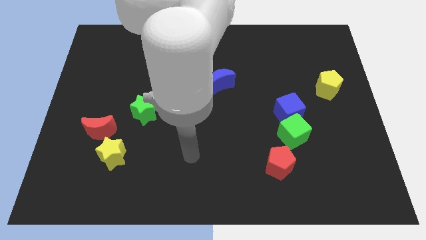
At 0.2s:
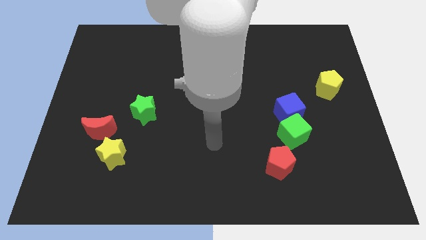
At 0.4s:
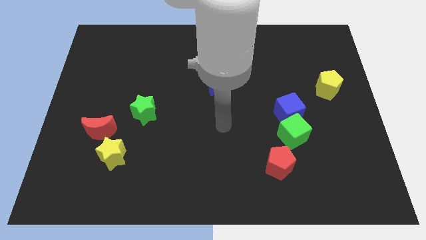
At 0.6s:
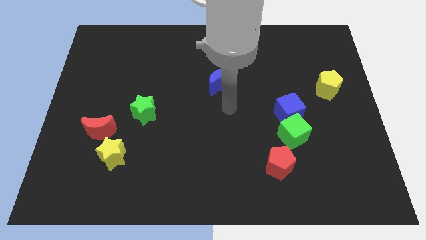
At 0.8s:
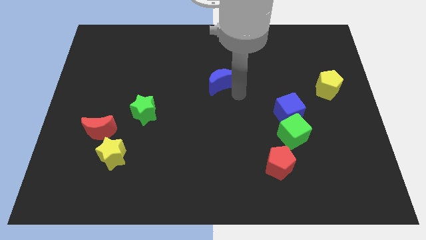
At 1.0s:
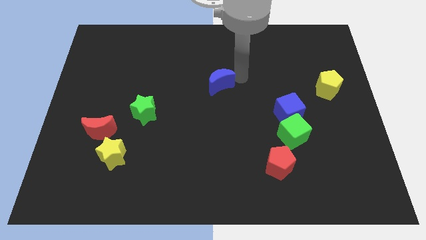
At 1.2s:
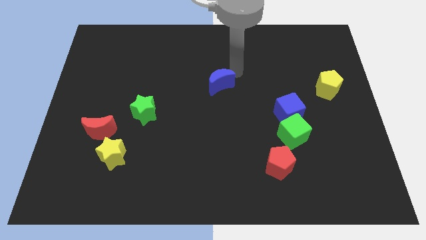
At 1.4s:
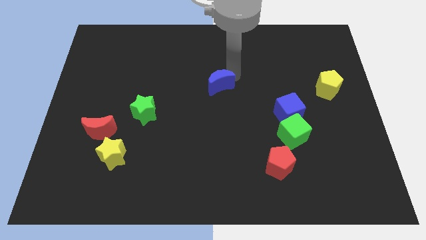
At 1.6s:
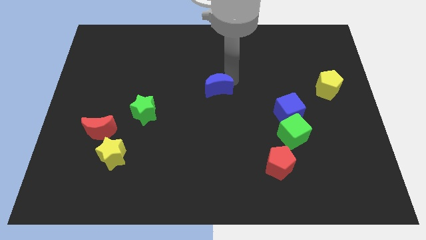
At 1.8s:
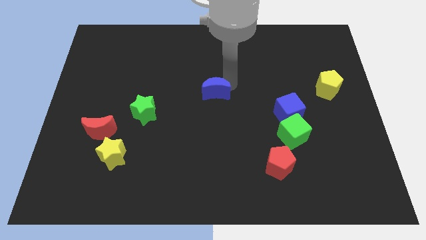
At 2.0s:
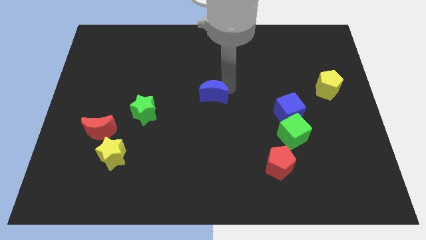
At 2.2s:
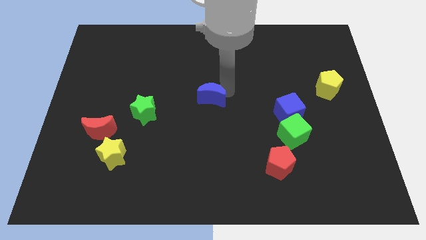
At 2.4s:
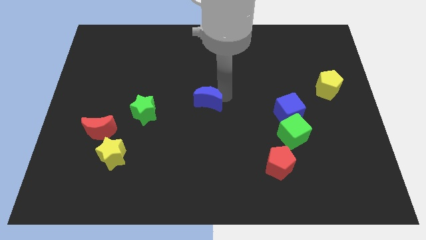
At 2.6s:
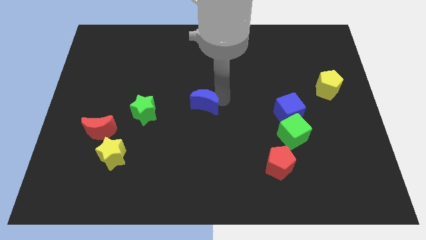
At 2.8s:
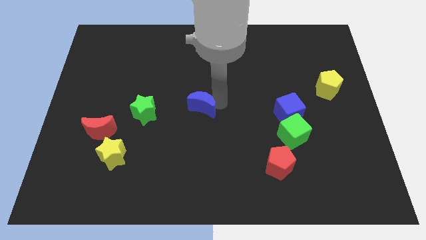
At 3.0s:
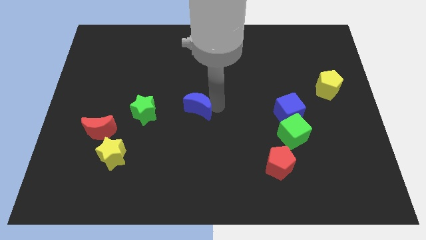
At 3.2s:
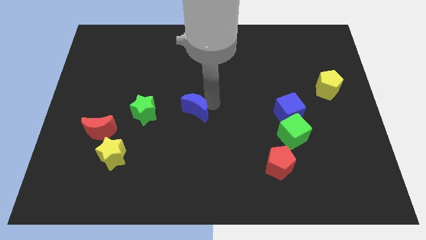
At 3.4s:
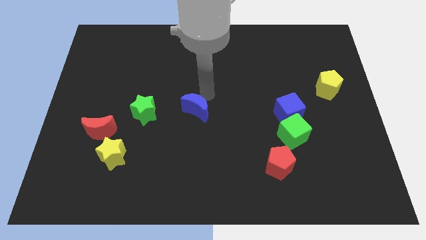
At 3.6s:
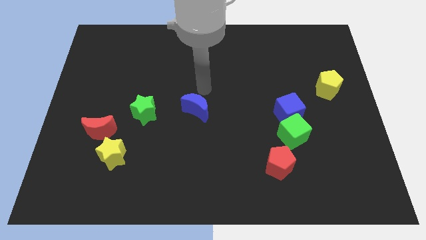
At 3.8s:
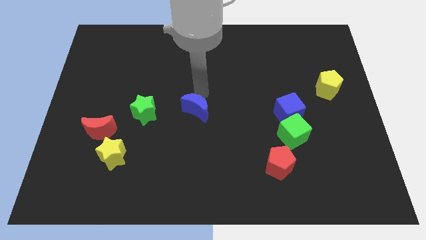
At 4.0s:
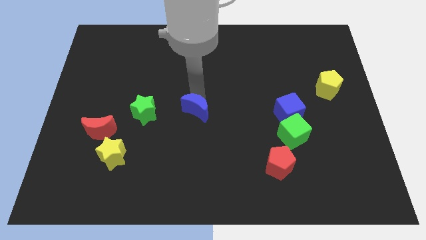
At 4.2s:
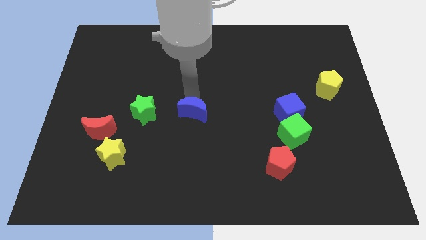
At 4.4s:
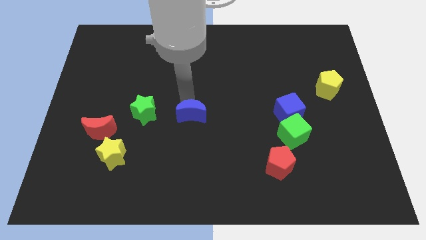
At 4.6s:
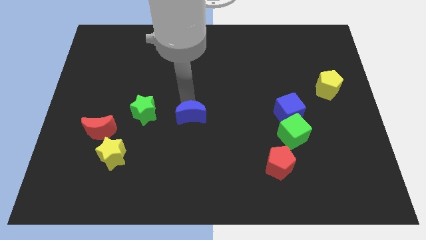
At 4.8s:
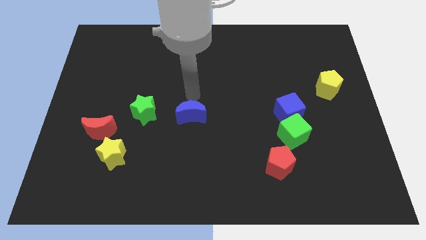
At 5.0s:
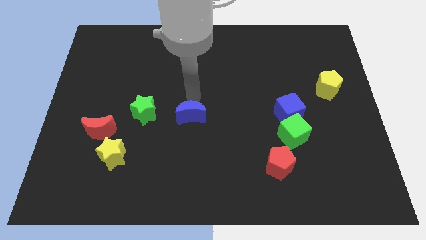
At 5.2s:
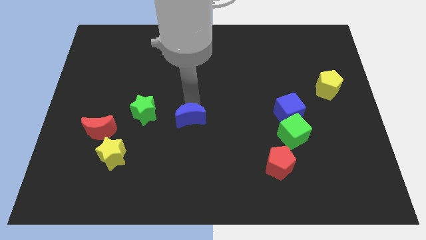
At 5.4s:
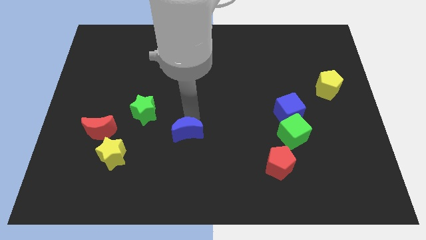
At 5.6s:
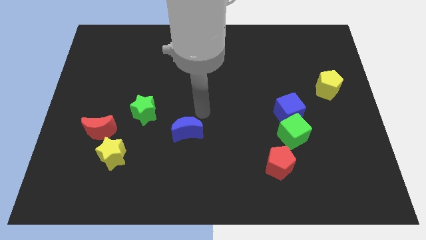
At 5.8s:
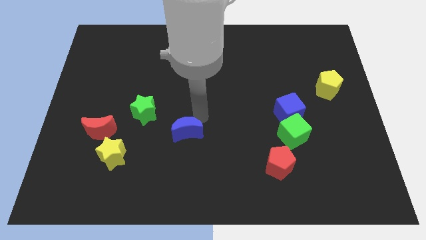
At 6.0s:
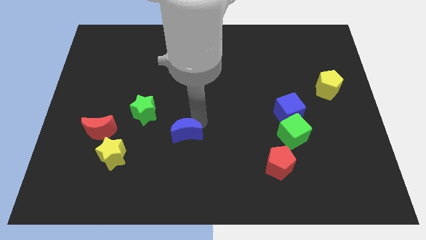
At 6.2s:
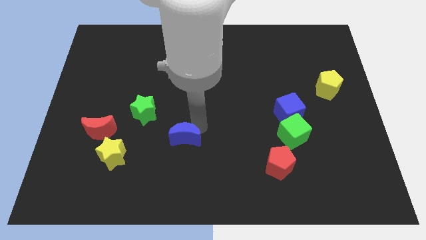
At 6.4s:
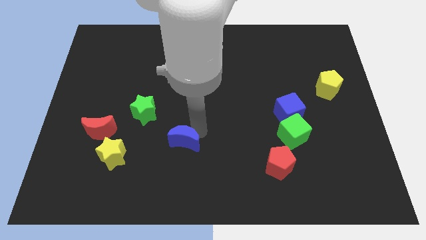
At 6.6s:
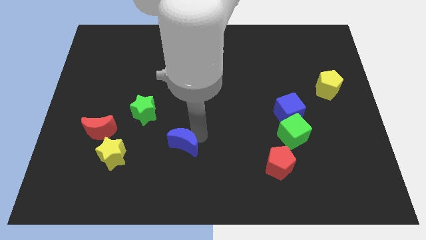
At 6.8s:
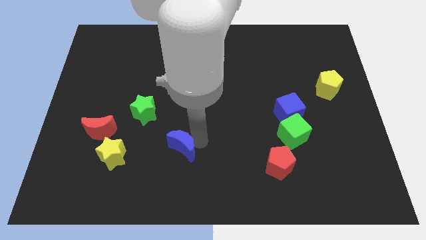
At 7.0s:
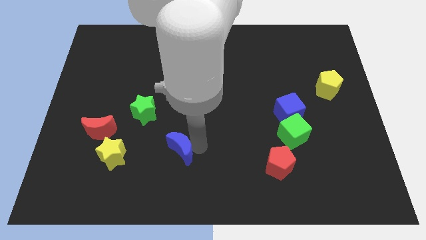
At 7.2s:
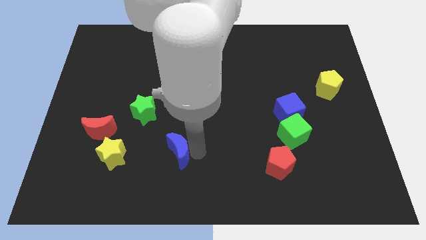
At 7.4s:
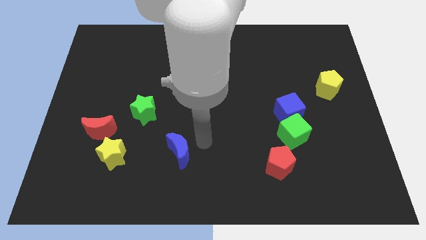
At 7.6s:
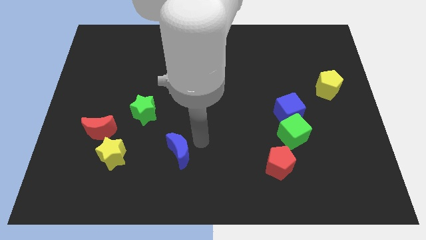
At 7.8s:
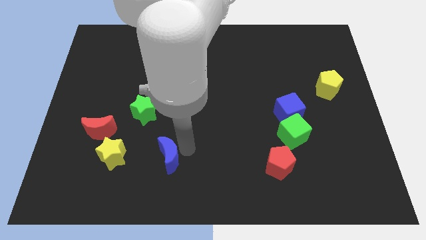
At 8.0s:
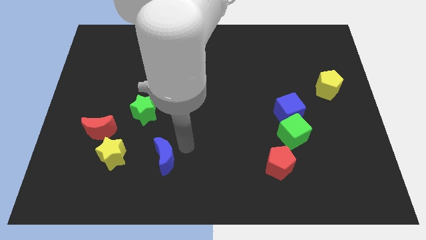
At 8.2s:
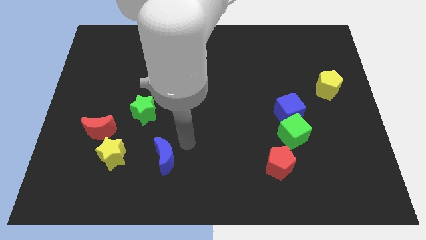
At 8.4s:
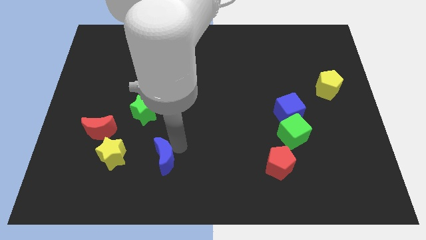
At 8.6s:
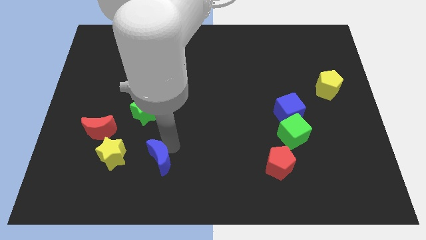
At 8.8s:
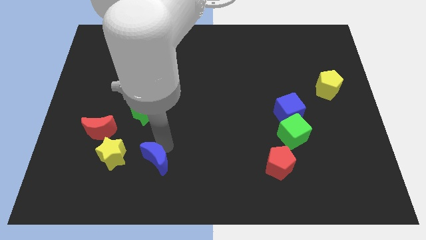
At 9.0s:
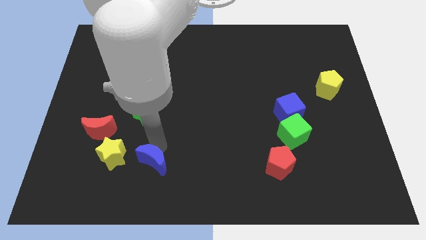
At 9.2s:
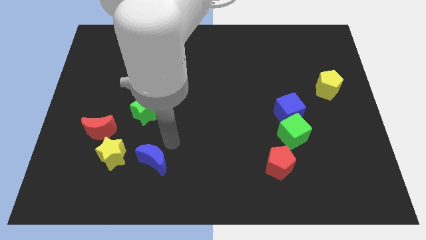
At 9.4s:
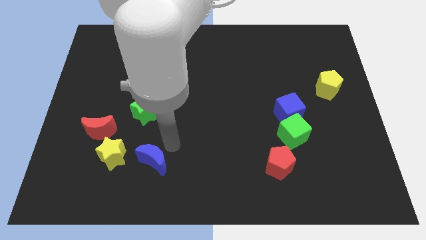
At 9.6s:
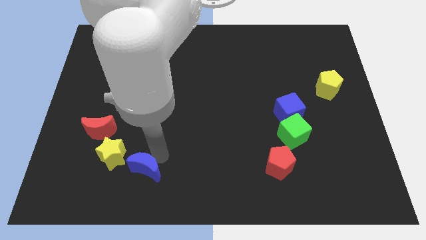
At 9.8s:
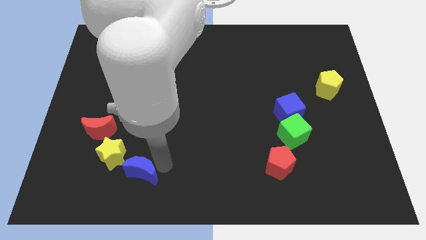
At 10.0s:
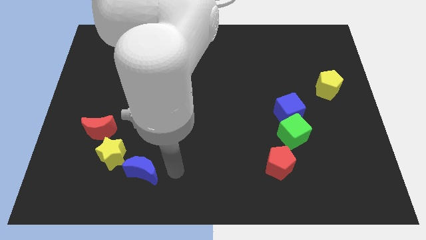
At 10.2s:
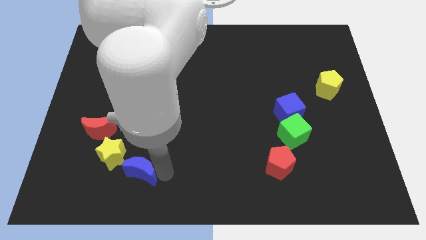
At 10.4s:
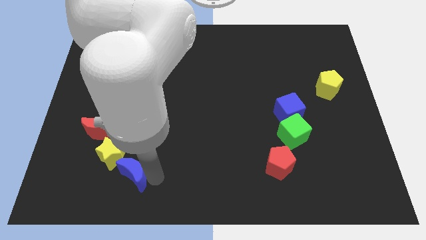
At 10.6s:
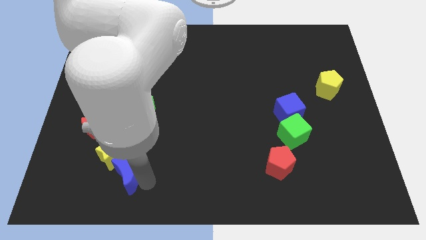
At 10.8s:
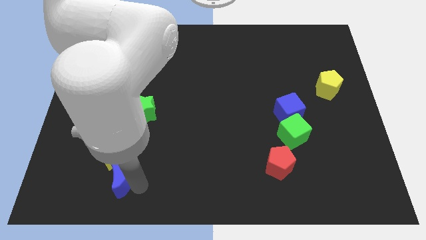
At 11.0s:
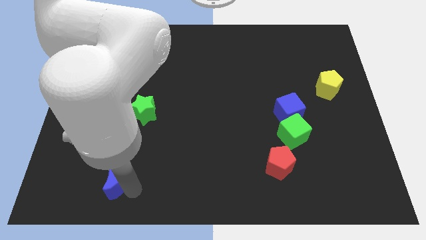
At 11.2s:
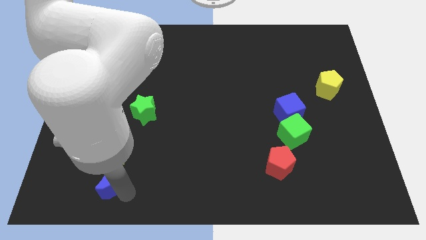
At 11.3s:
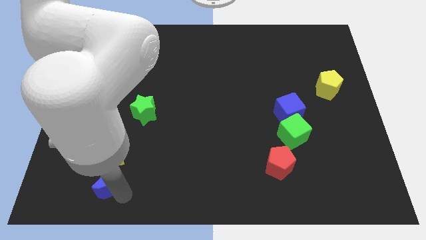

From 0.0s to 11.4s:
slide the blue moon to the bottom of the red moon

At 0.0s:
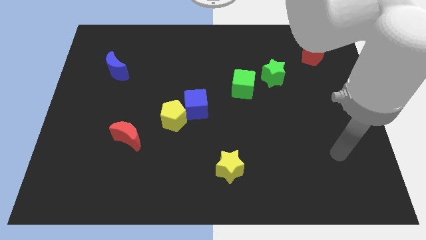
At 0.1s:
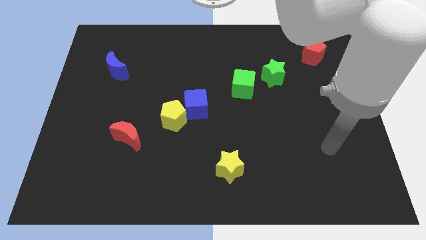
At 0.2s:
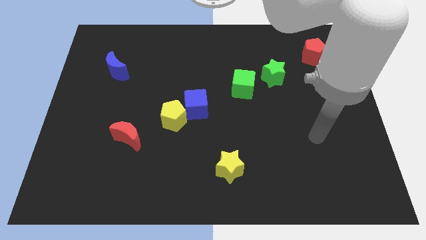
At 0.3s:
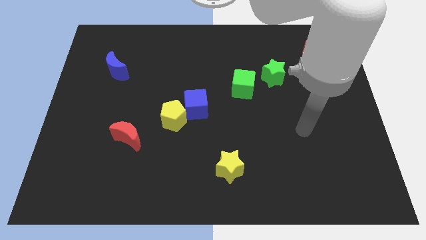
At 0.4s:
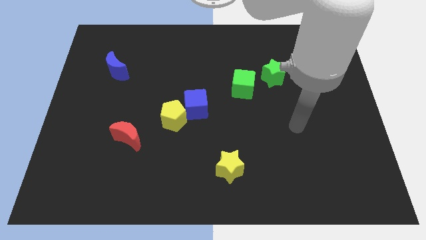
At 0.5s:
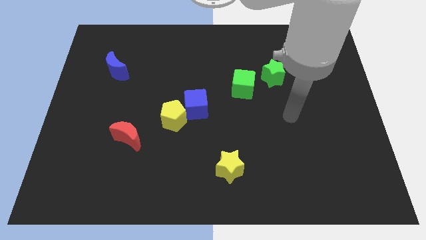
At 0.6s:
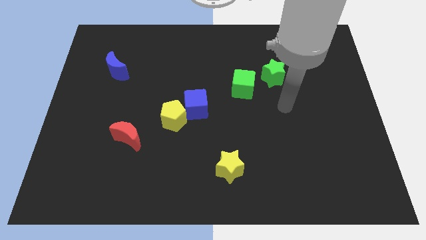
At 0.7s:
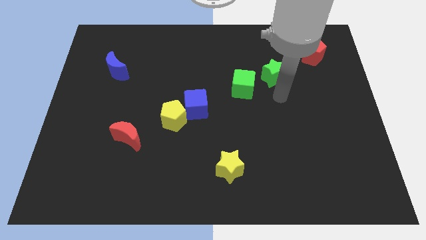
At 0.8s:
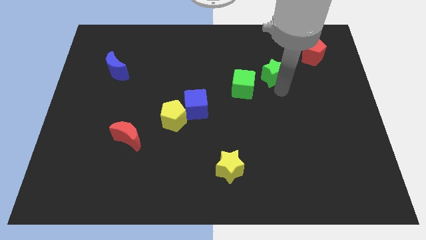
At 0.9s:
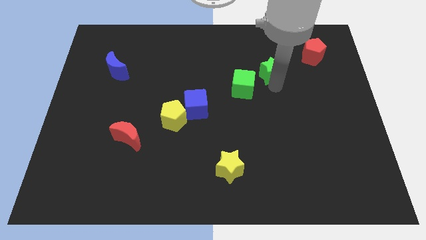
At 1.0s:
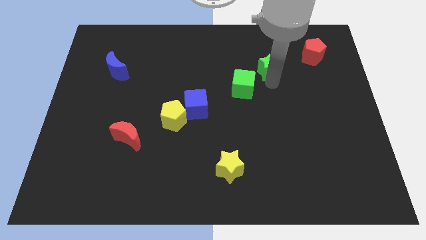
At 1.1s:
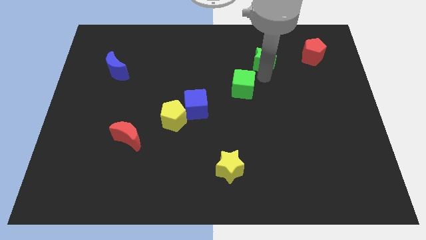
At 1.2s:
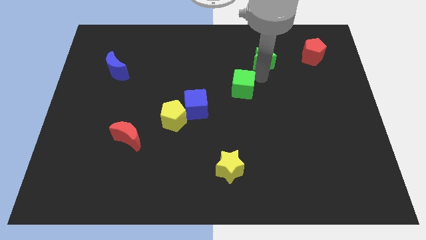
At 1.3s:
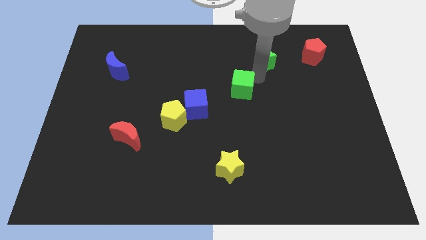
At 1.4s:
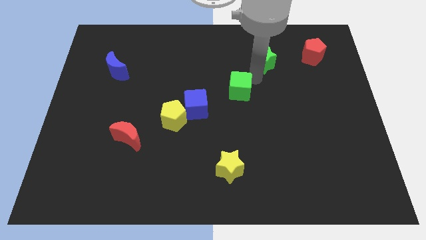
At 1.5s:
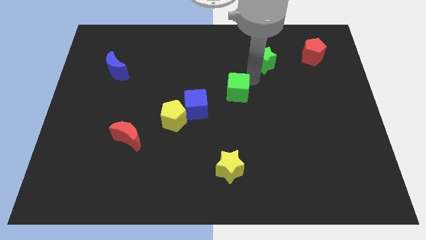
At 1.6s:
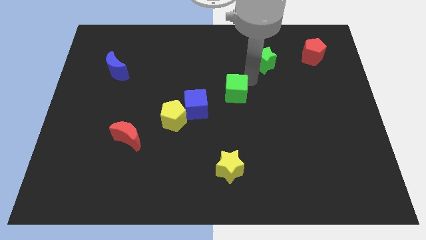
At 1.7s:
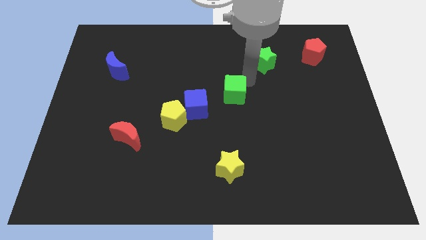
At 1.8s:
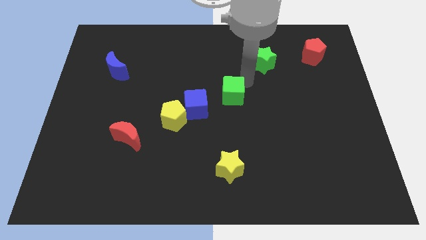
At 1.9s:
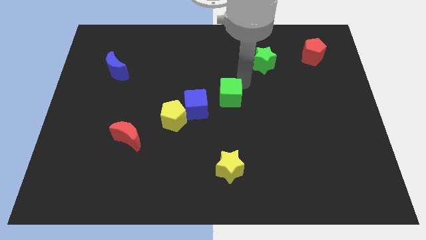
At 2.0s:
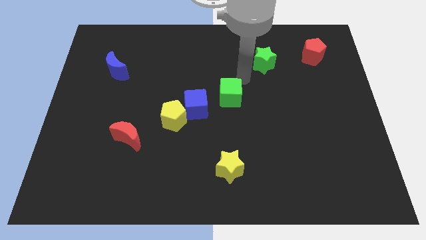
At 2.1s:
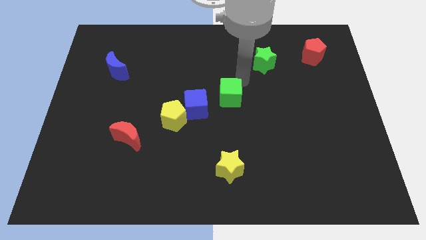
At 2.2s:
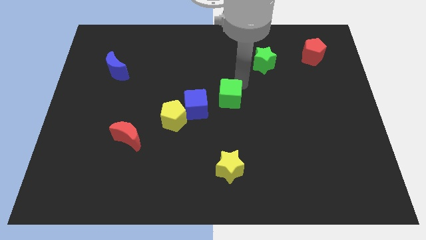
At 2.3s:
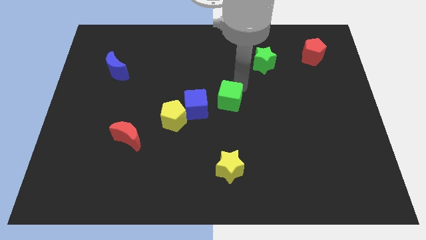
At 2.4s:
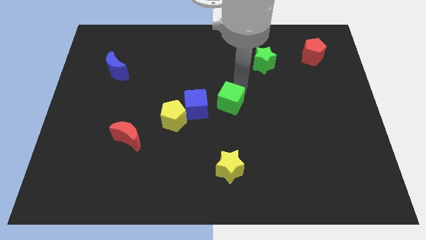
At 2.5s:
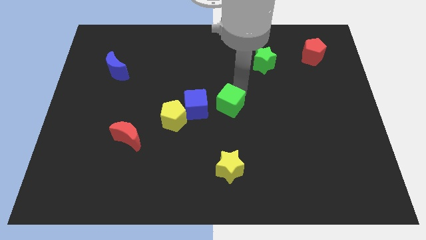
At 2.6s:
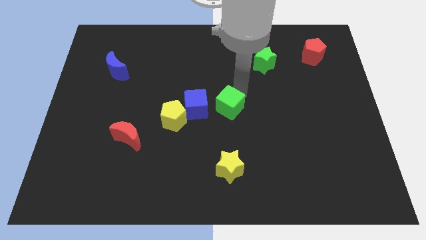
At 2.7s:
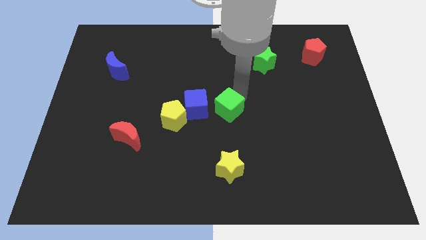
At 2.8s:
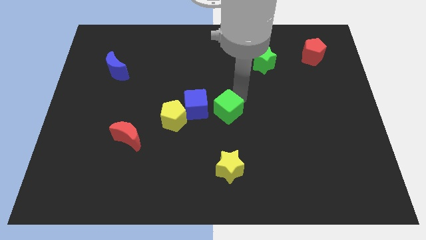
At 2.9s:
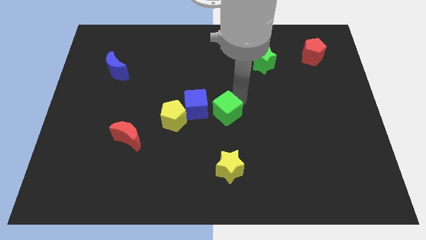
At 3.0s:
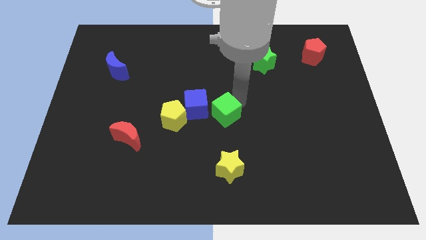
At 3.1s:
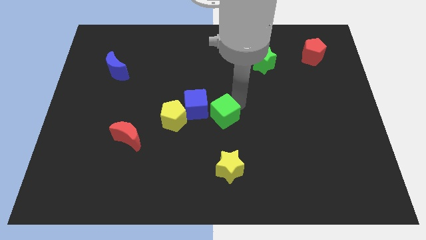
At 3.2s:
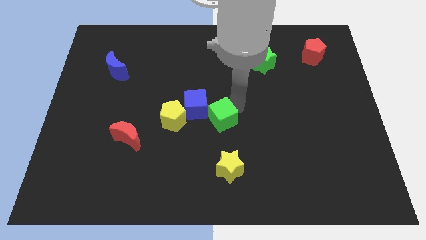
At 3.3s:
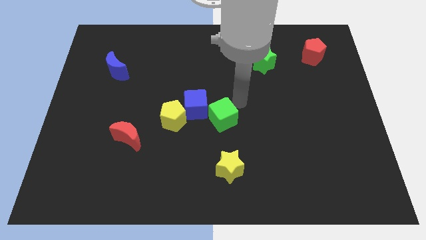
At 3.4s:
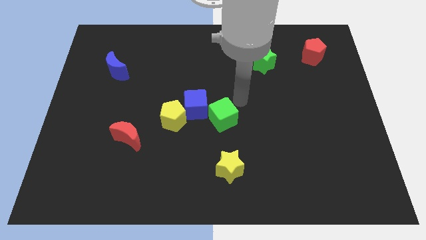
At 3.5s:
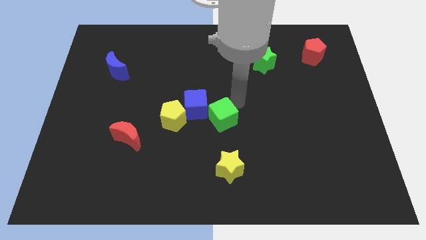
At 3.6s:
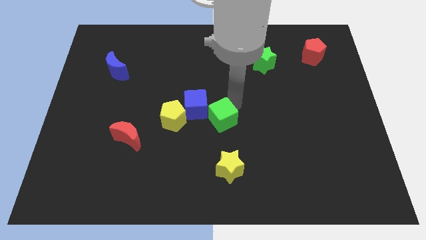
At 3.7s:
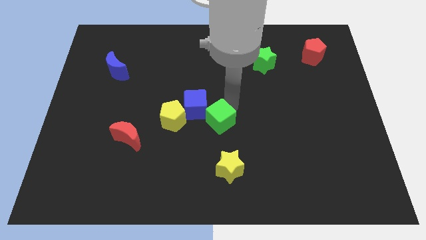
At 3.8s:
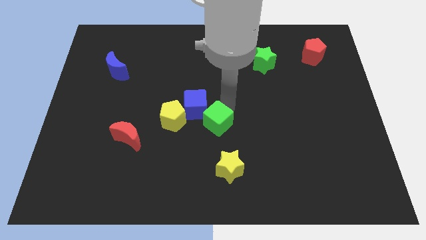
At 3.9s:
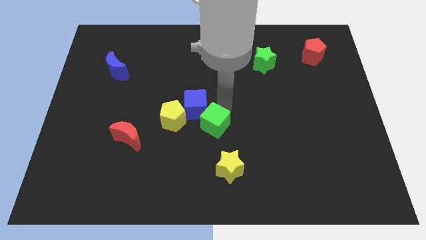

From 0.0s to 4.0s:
move the green cube below the blue cube
